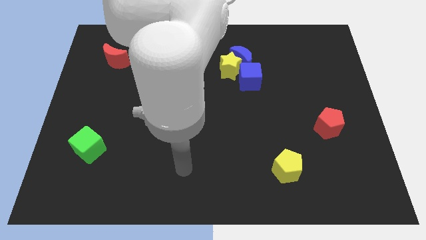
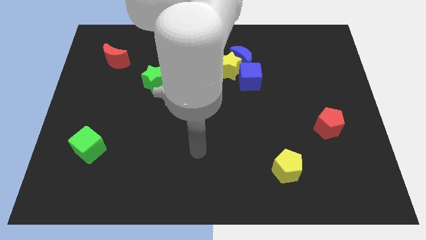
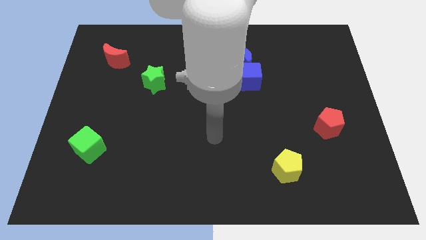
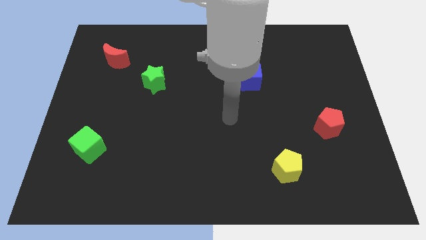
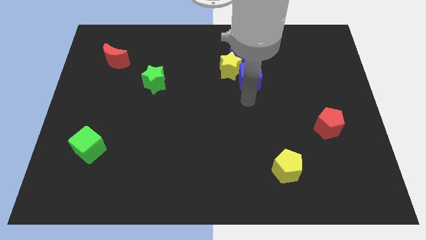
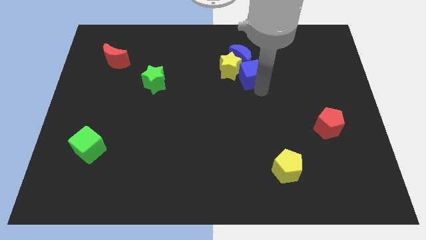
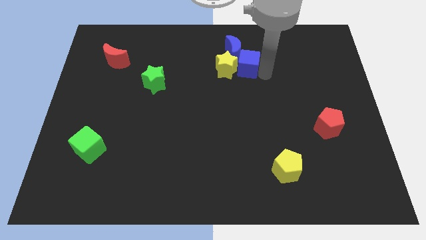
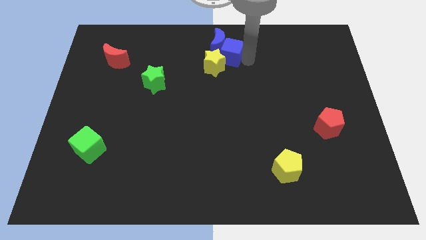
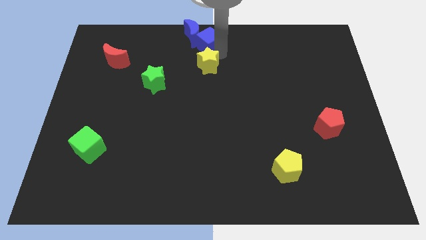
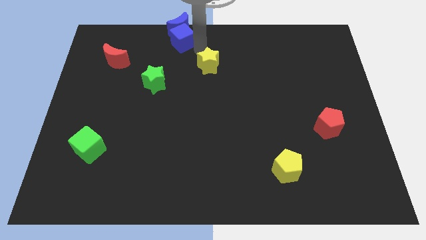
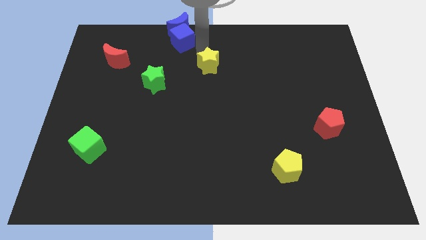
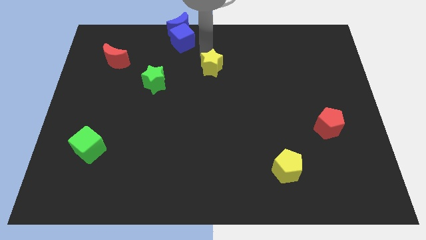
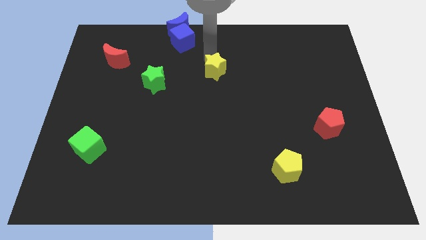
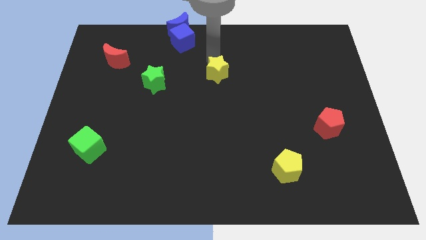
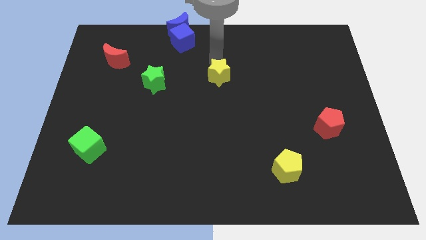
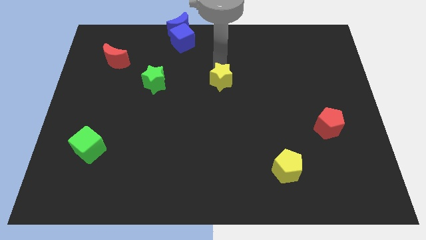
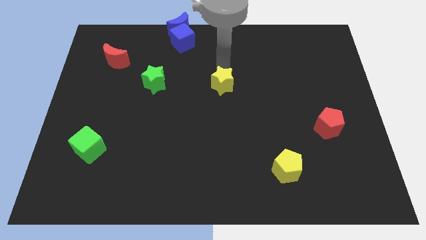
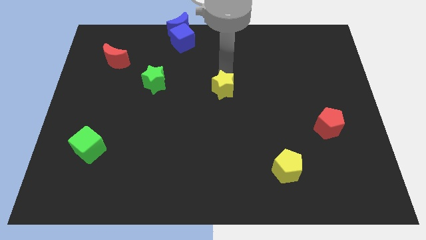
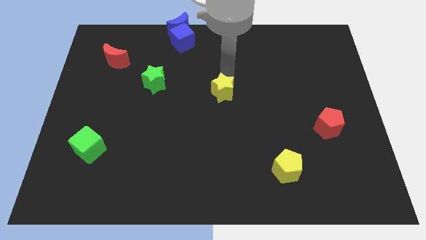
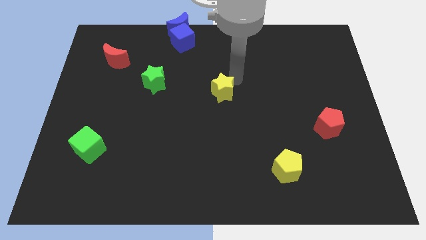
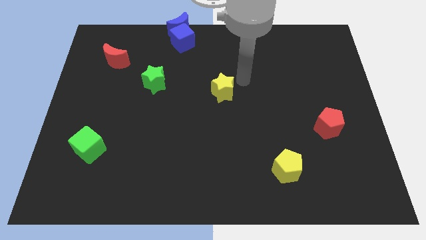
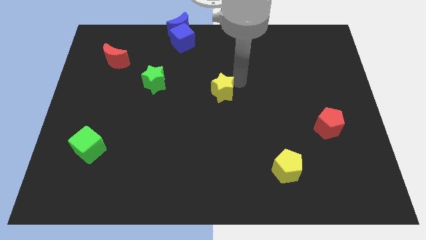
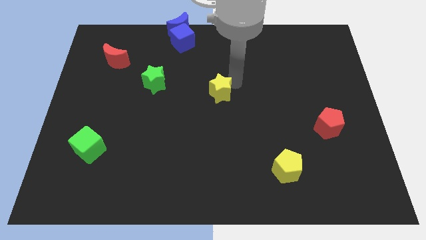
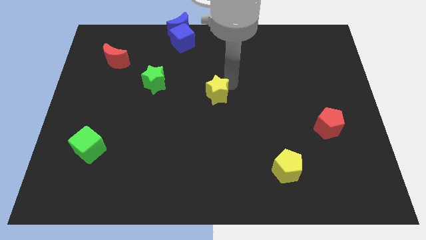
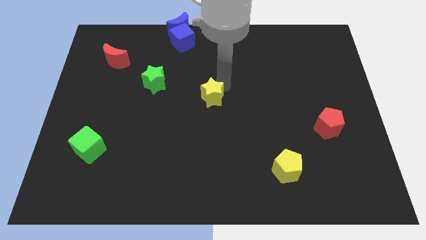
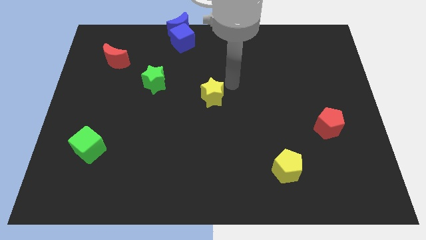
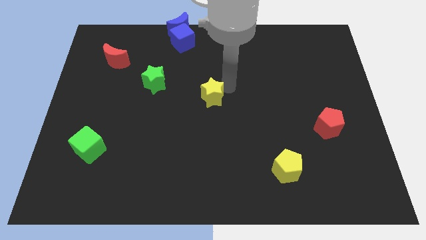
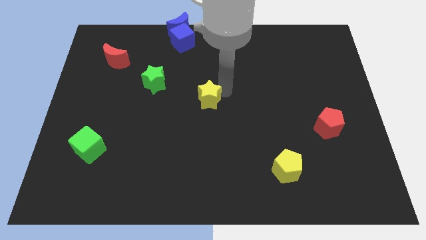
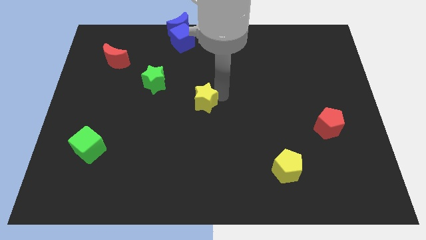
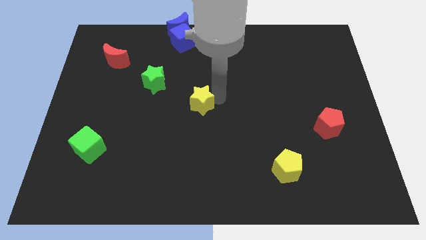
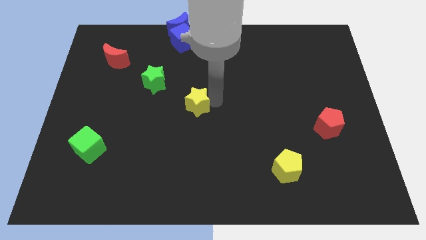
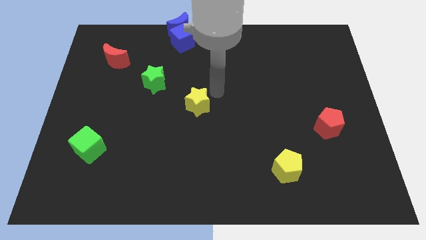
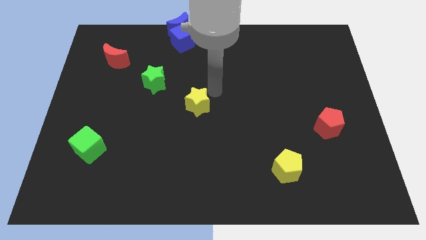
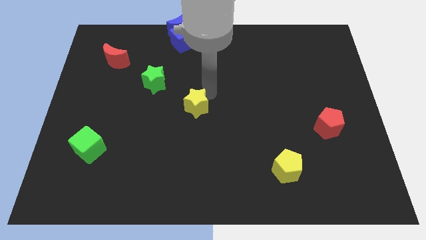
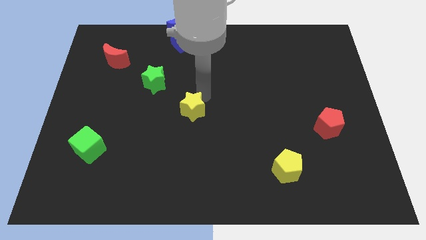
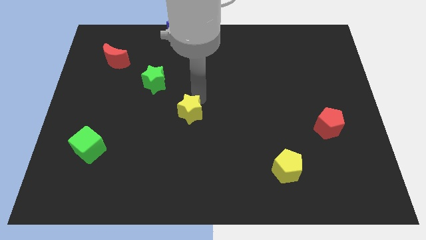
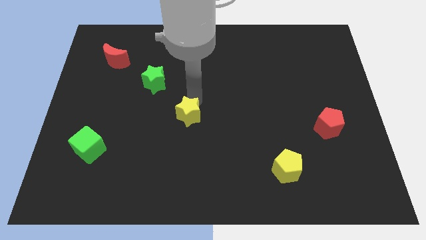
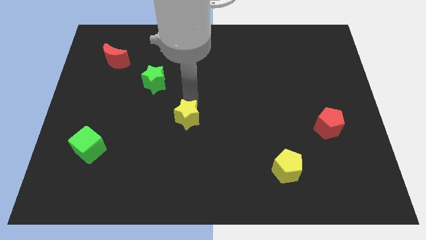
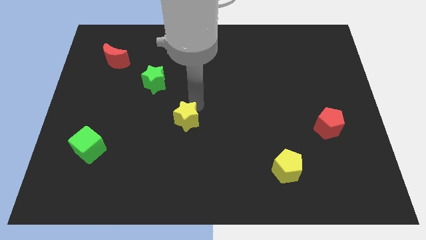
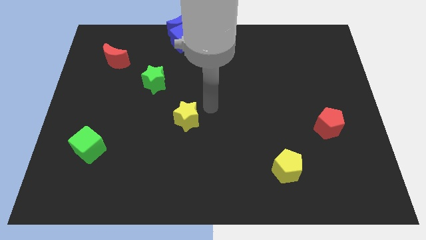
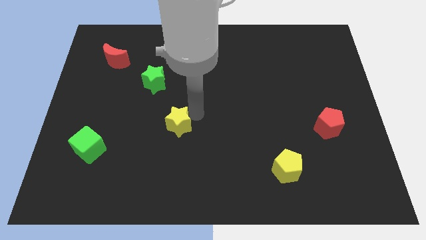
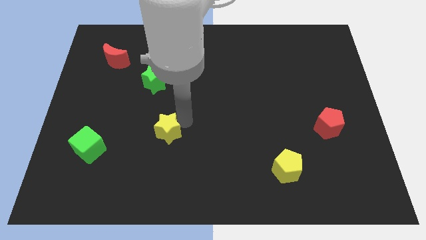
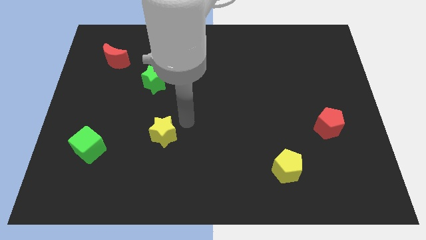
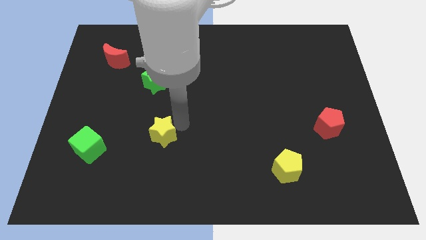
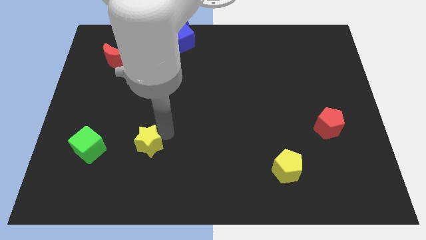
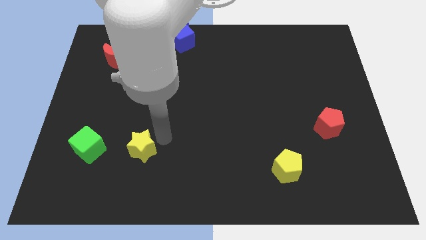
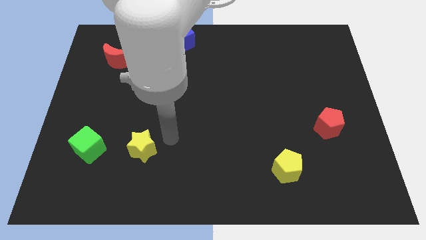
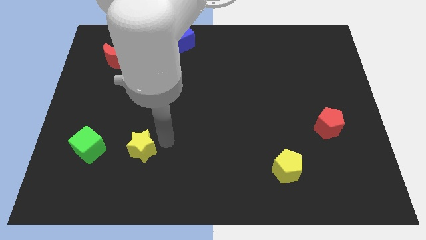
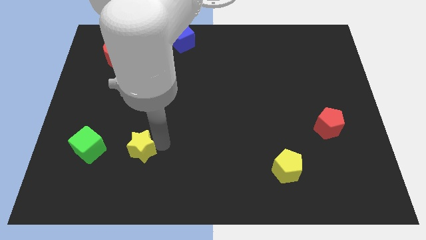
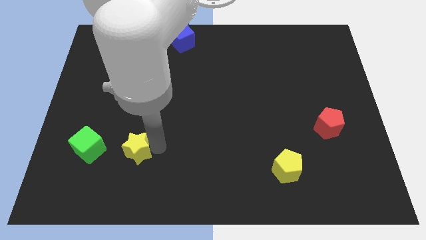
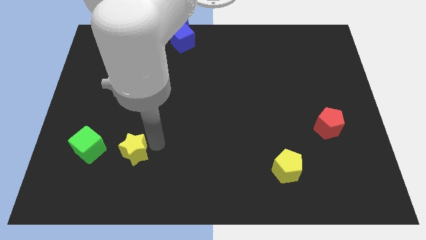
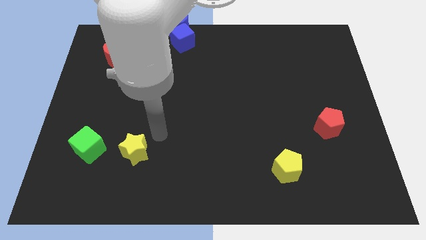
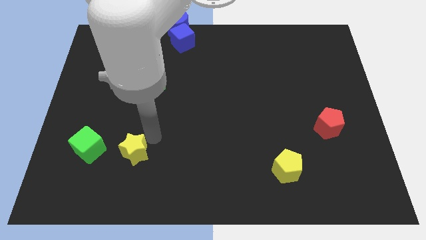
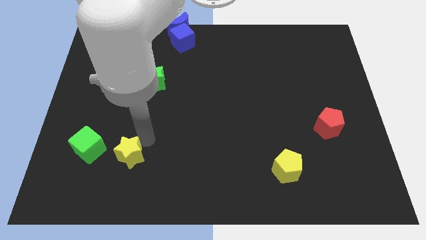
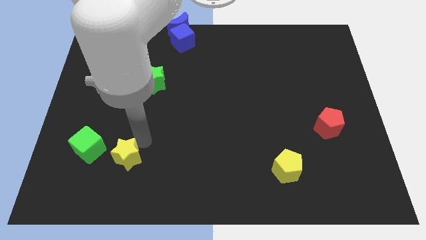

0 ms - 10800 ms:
put the yellow star to the bottom right side of the green cube

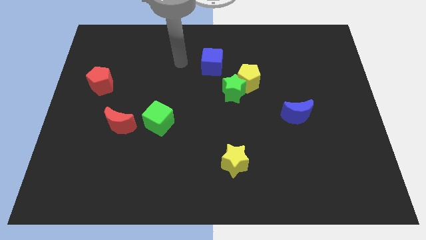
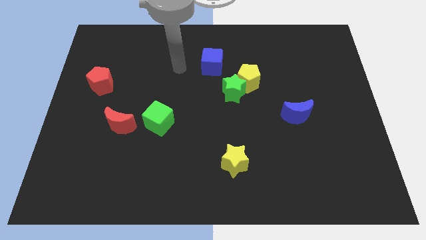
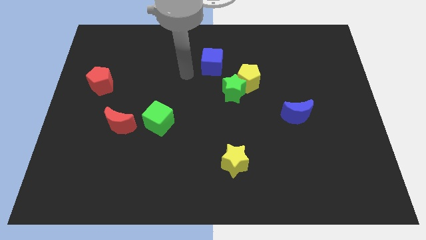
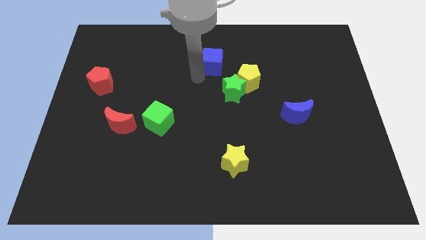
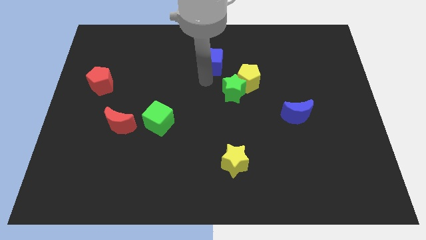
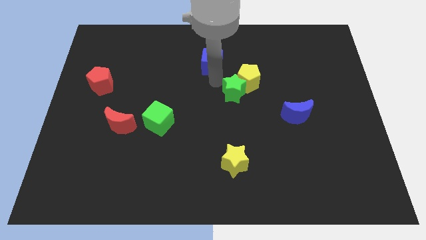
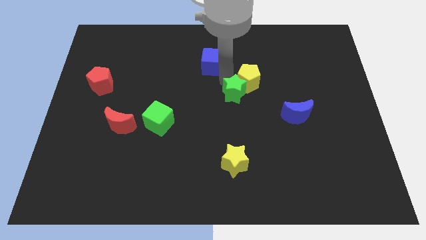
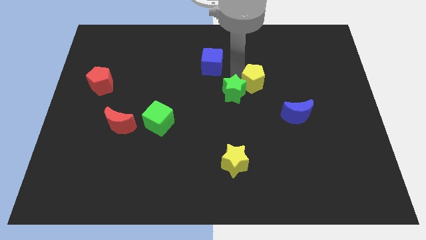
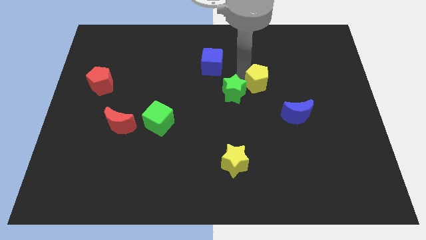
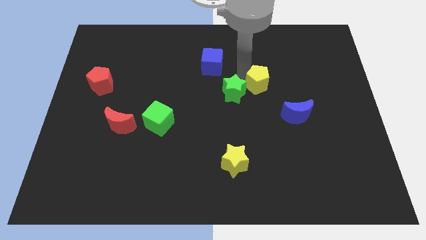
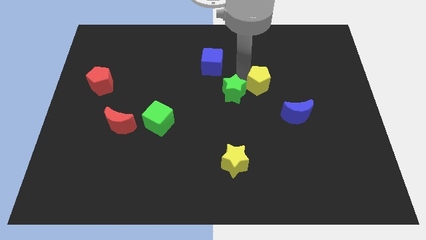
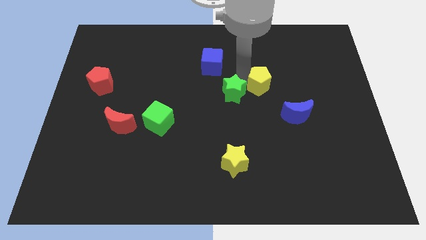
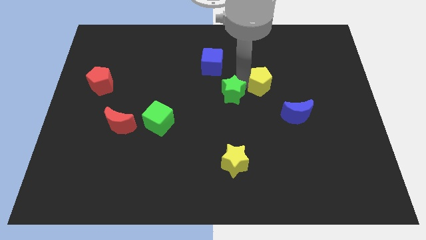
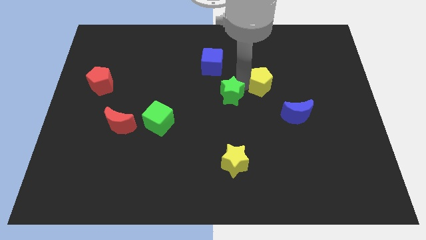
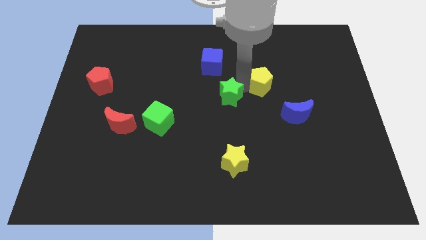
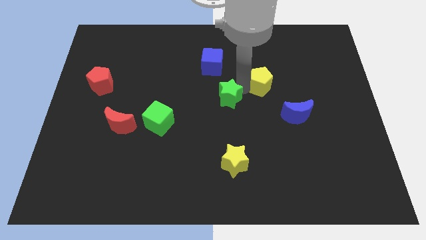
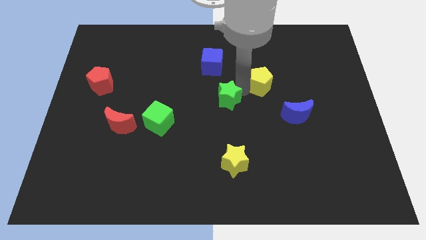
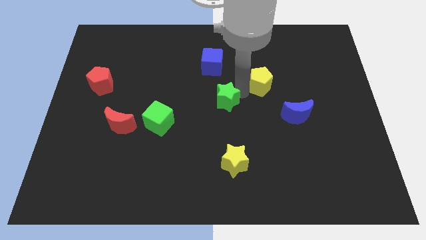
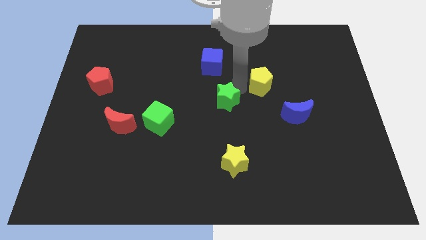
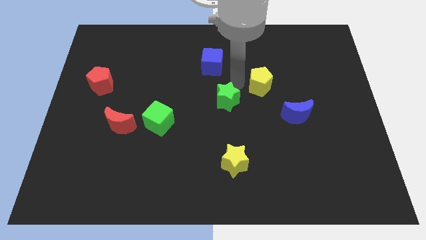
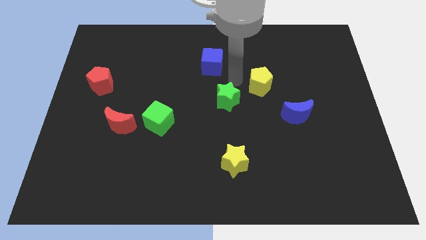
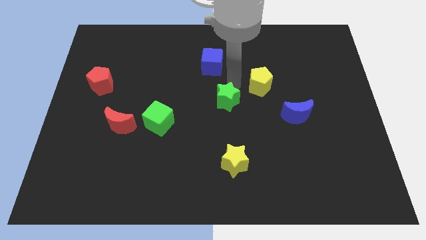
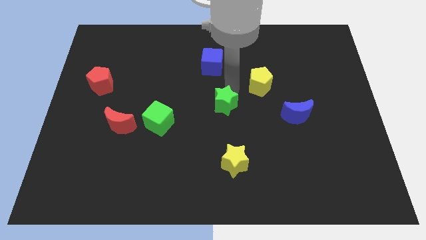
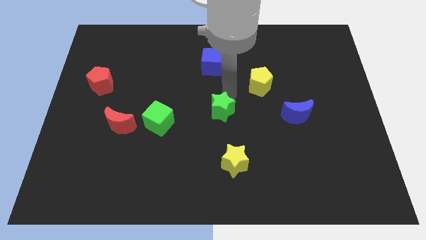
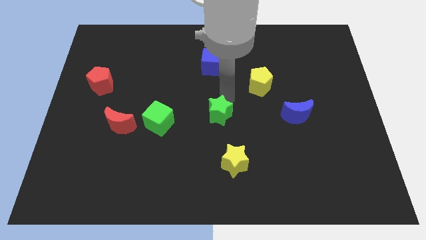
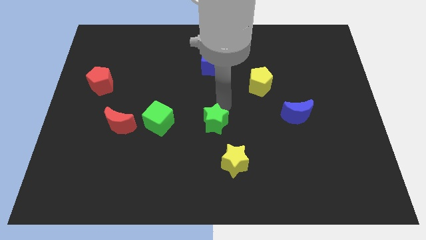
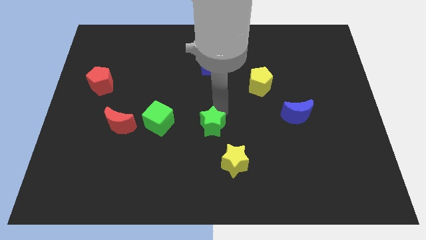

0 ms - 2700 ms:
put the green star diagonally up and to the left of the yellow star
